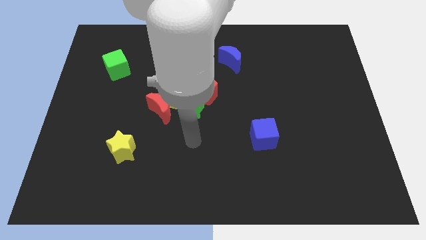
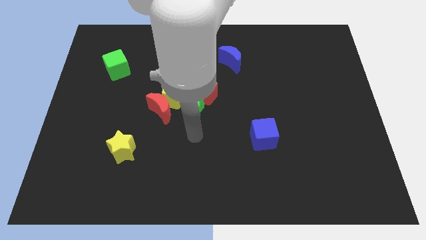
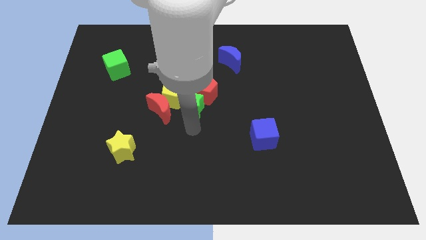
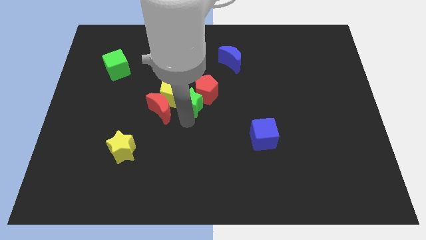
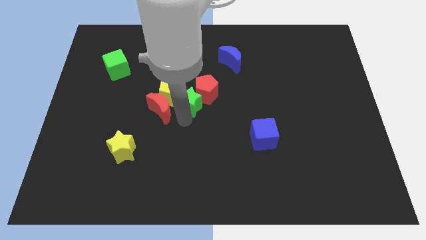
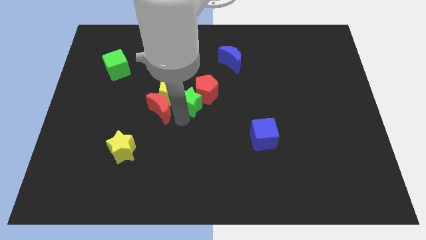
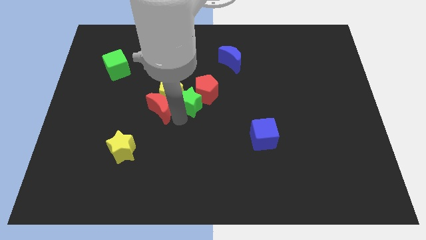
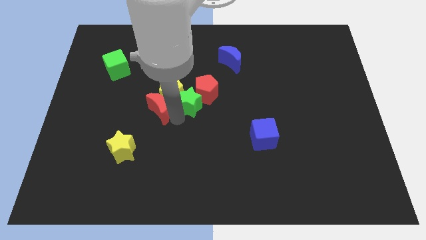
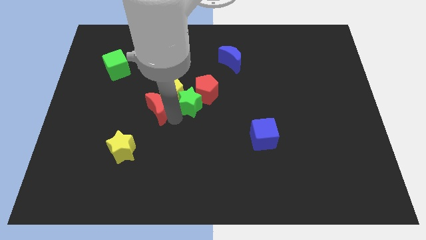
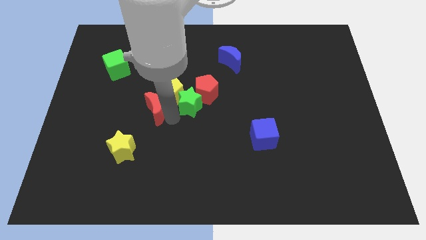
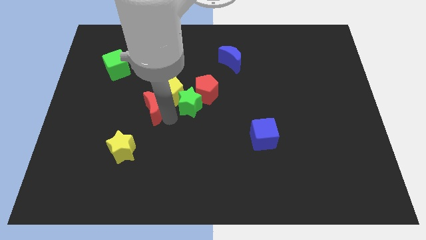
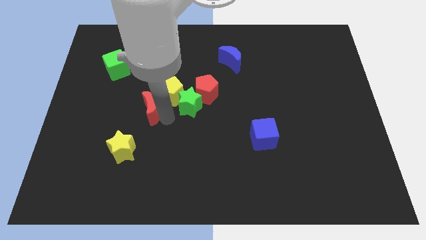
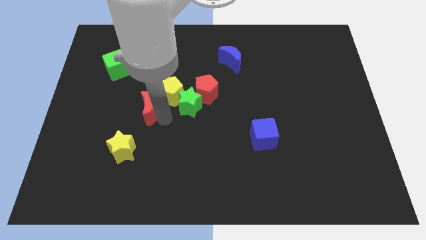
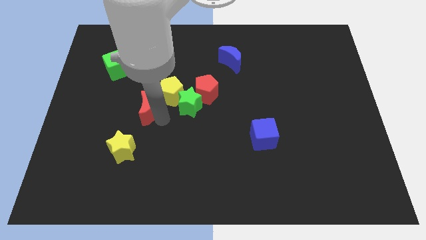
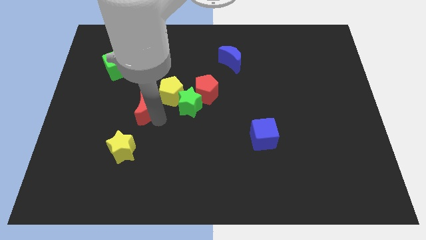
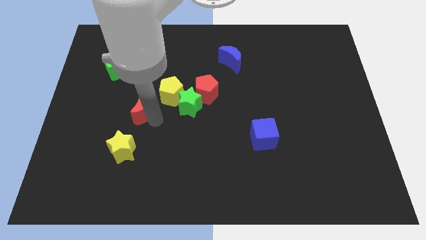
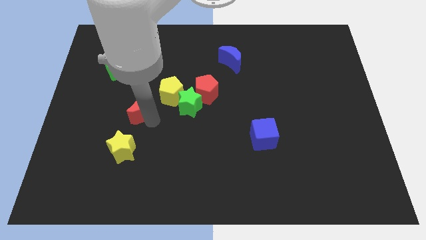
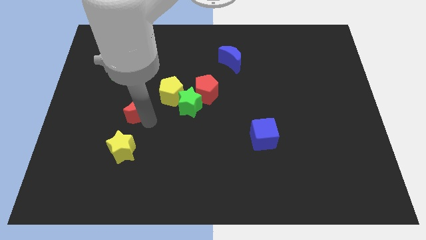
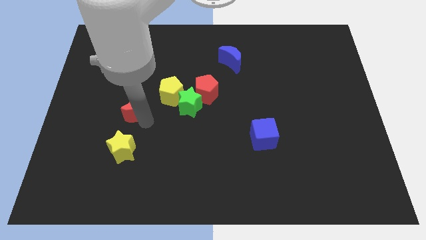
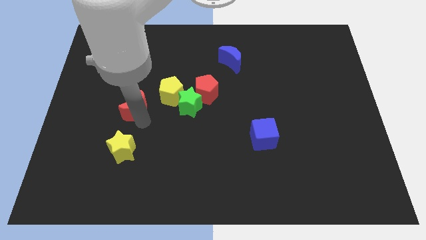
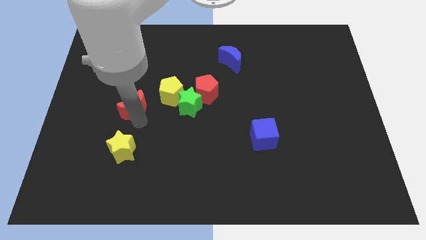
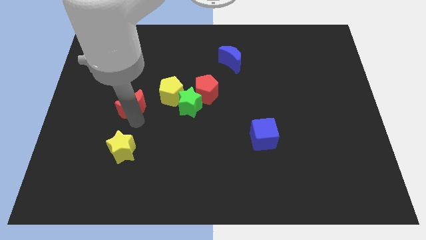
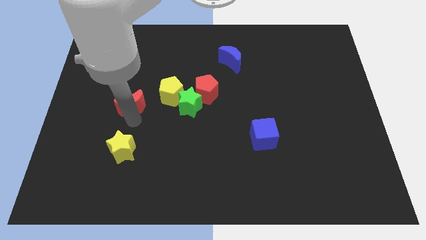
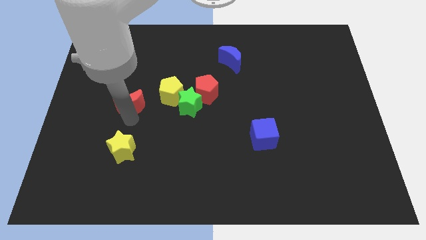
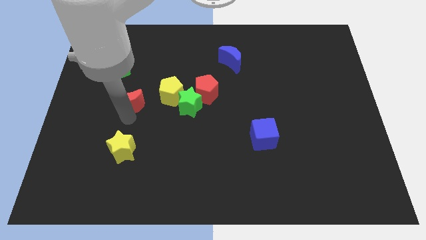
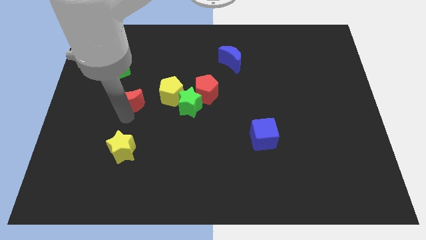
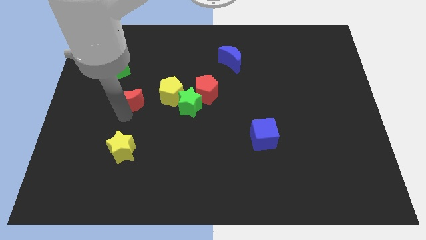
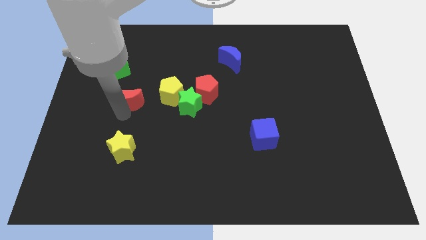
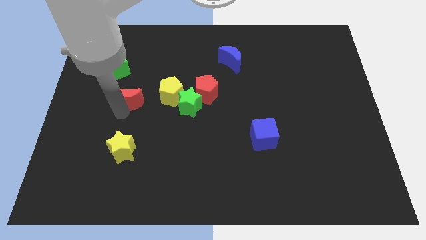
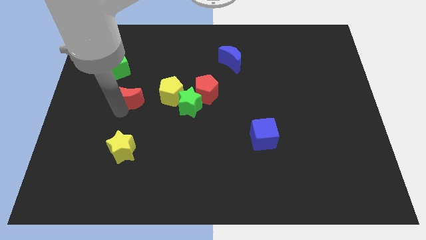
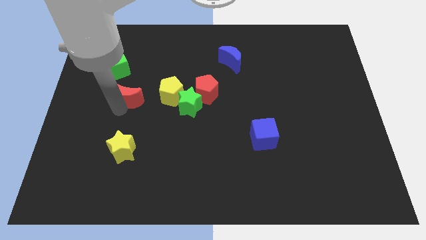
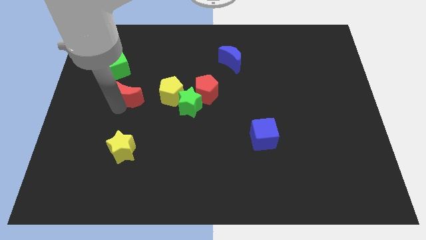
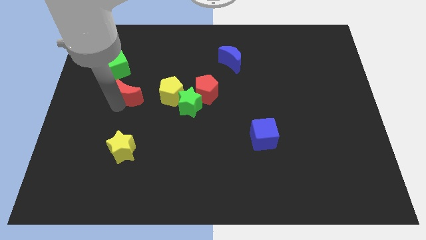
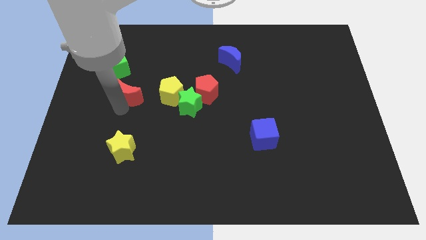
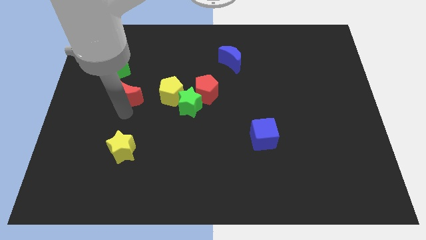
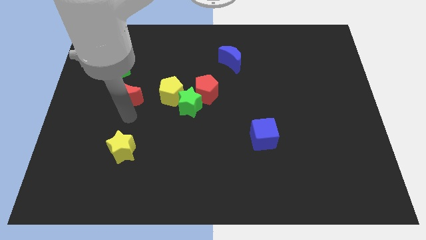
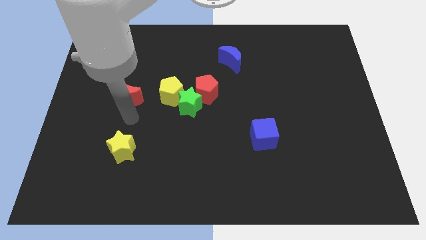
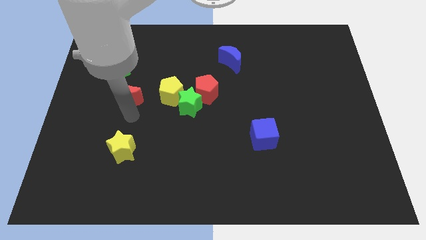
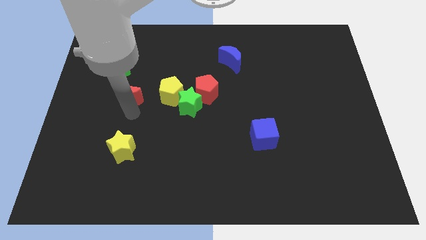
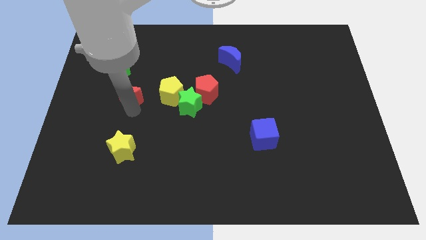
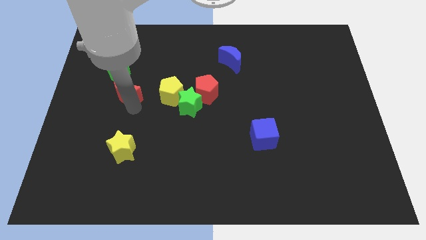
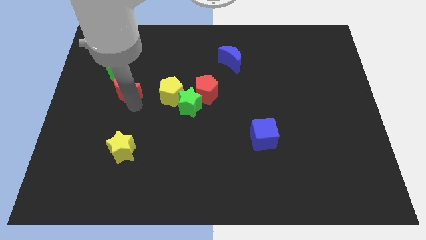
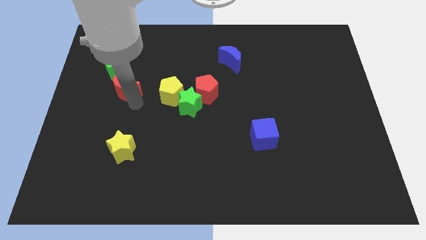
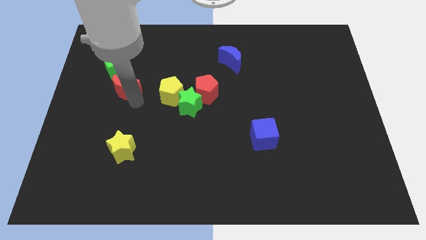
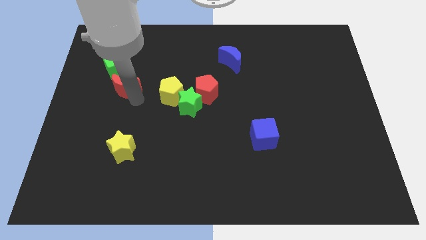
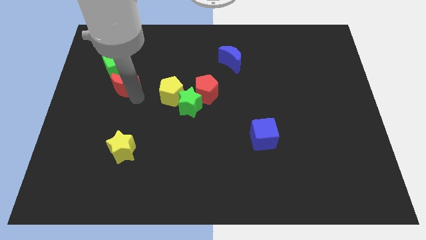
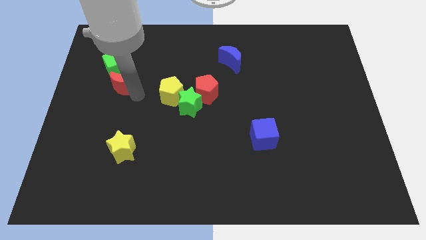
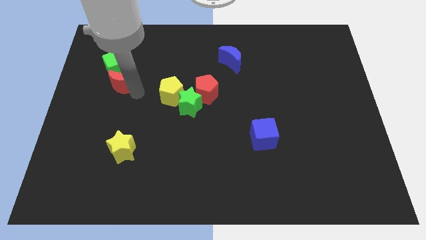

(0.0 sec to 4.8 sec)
push the red moon towards the green cube

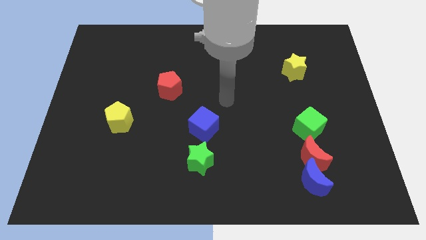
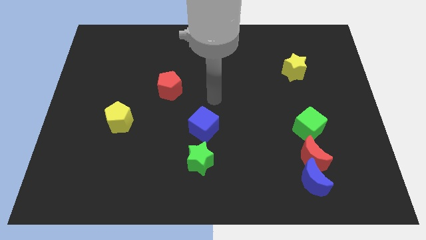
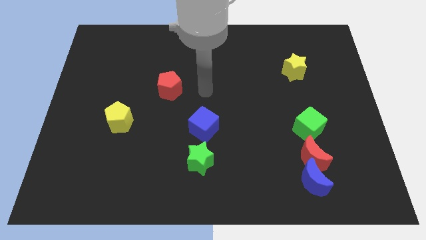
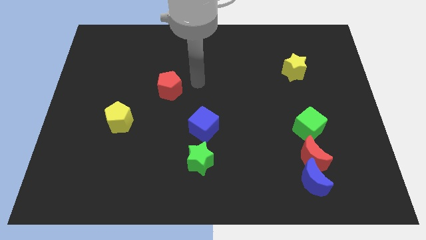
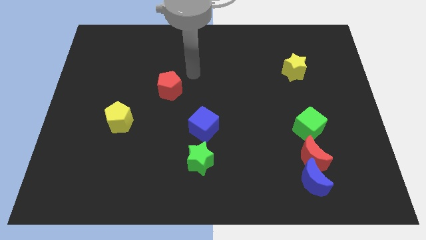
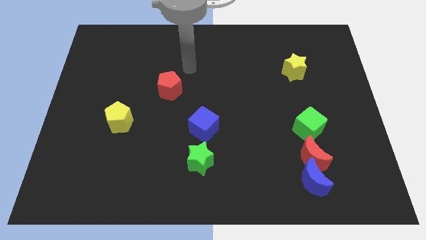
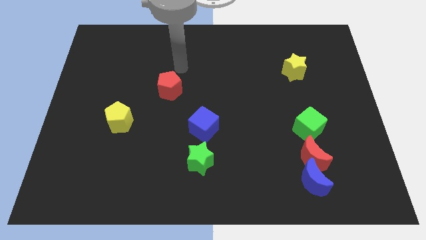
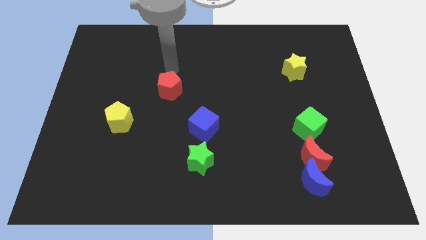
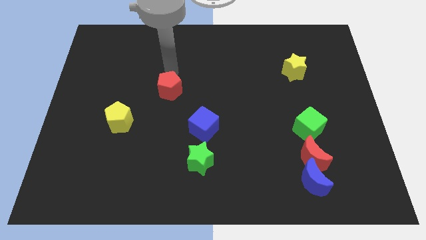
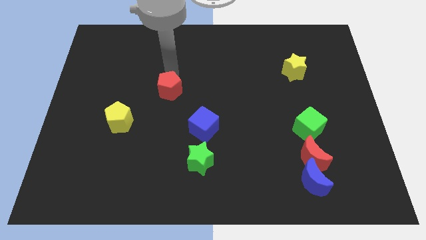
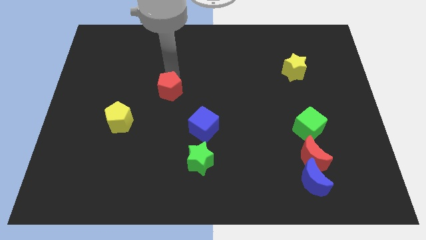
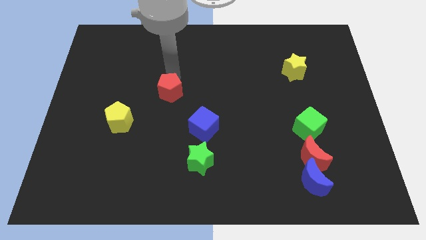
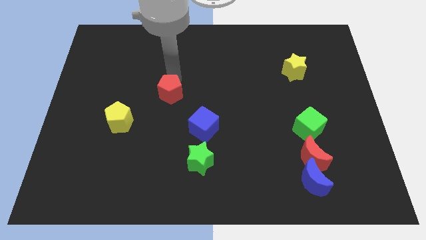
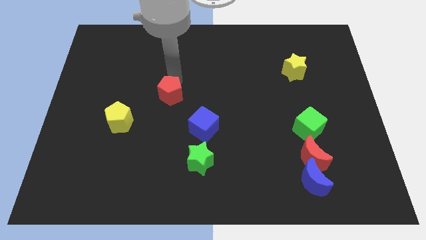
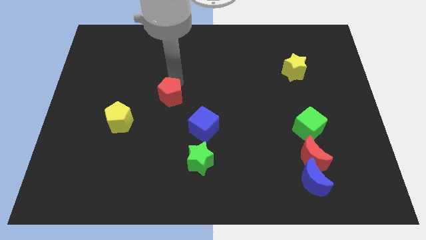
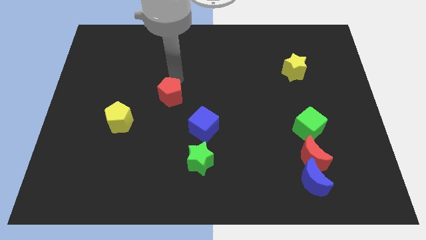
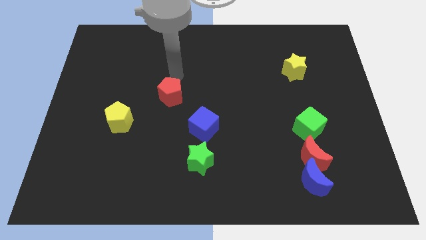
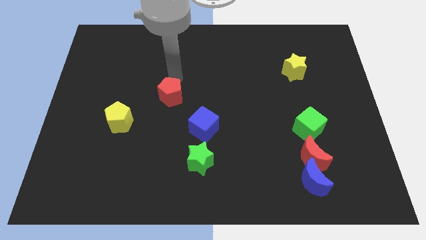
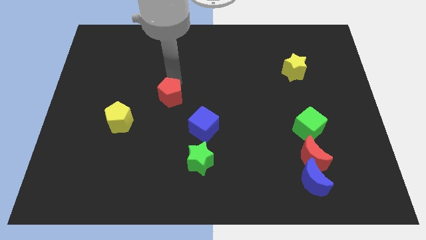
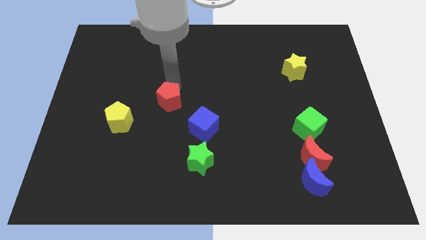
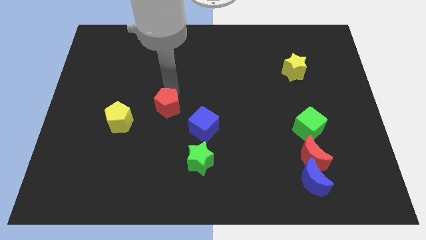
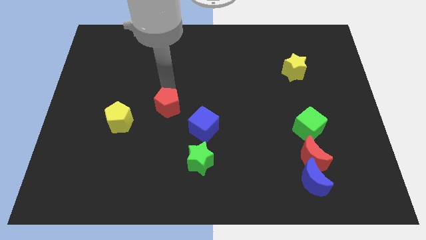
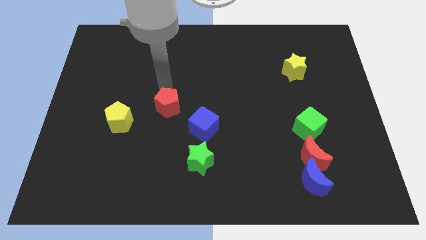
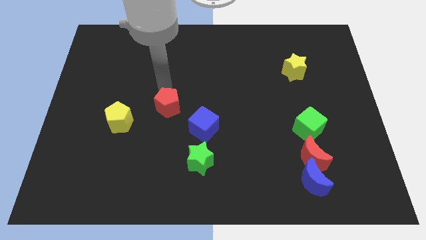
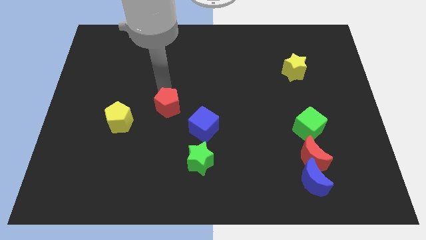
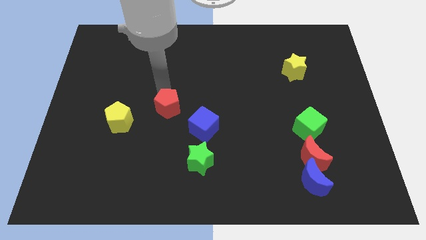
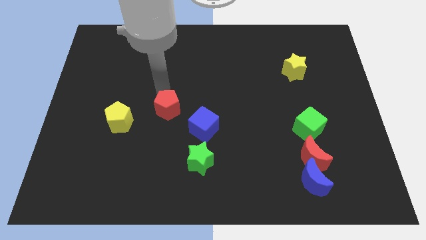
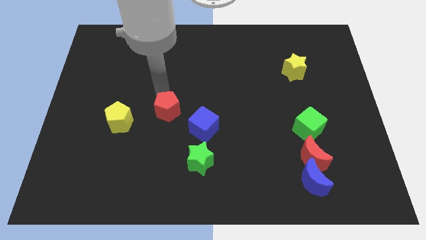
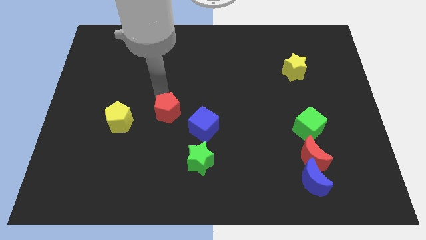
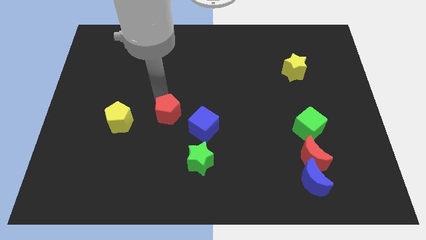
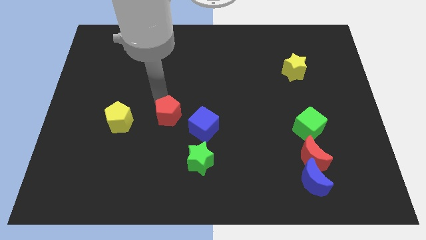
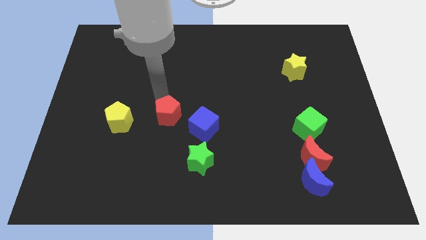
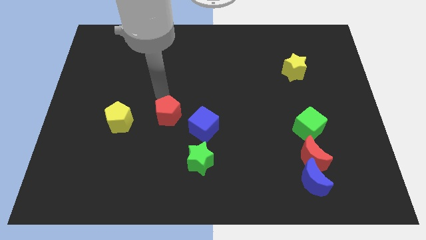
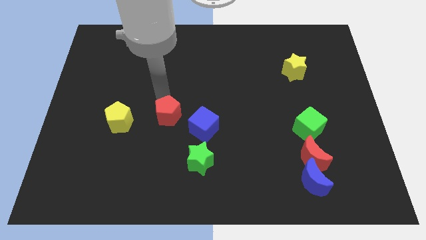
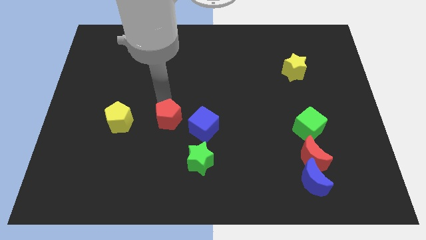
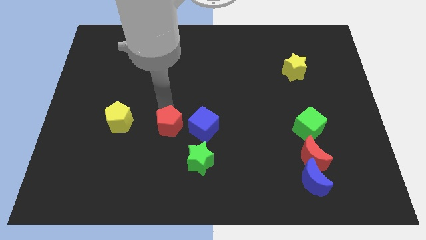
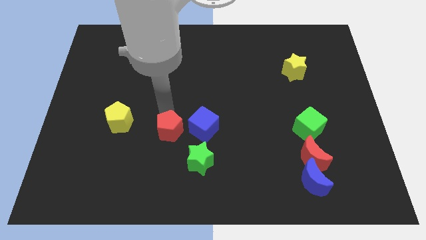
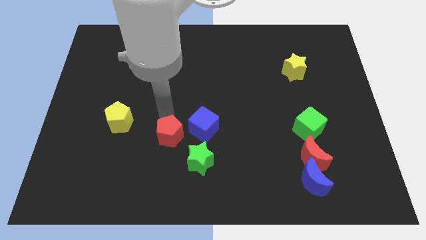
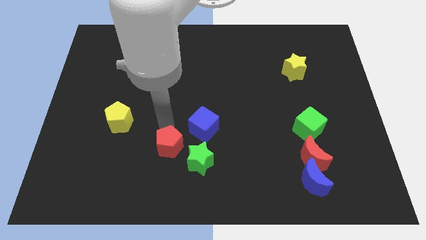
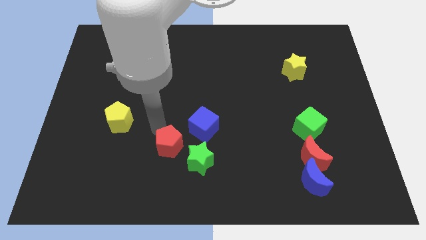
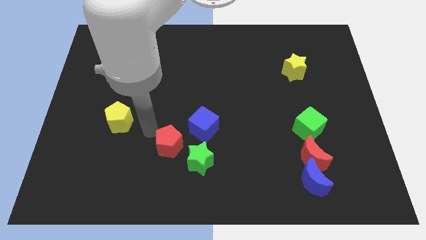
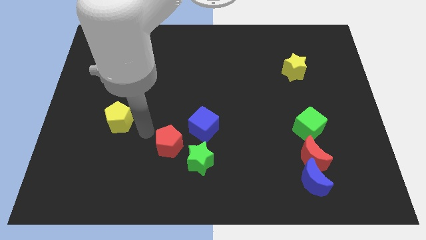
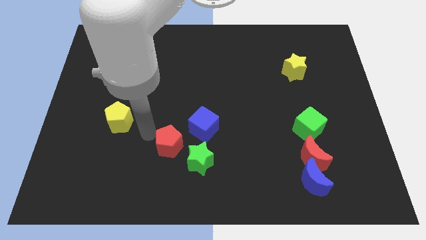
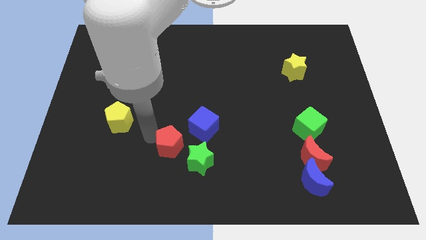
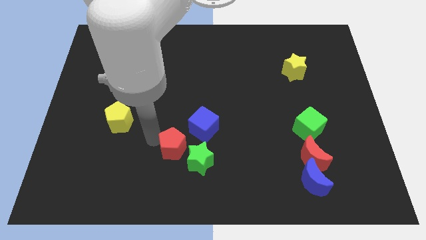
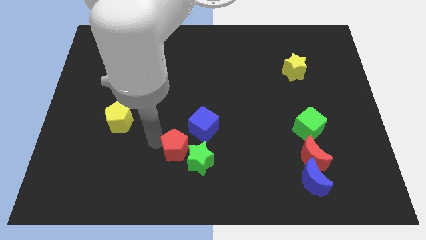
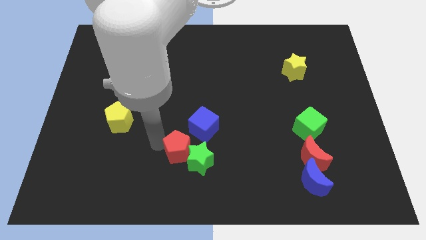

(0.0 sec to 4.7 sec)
push the red pentagon next to the green star
